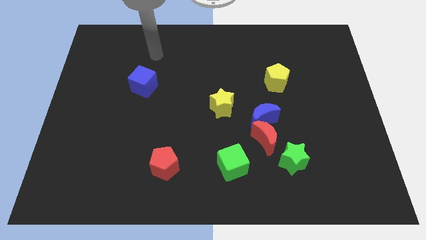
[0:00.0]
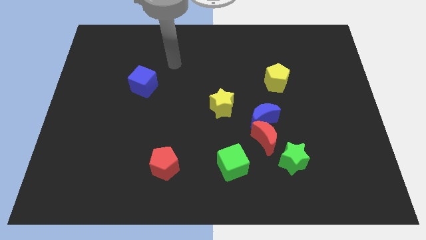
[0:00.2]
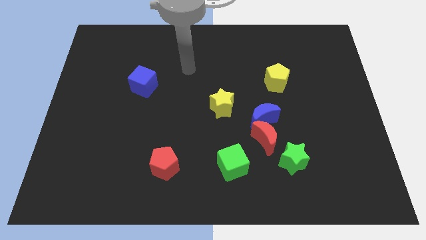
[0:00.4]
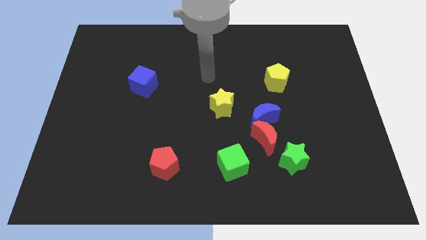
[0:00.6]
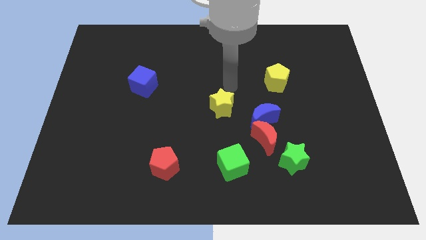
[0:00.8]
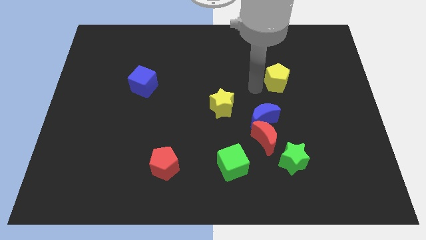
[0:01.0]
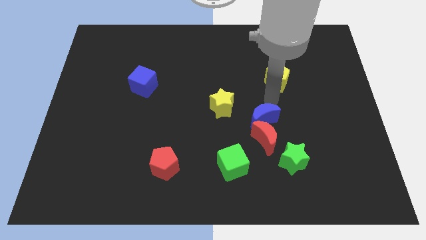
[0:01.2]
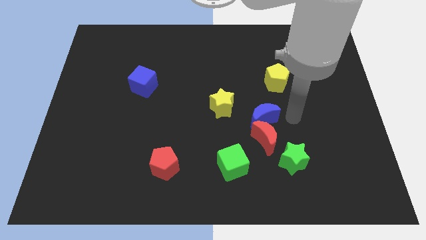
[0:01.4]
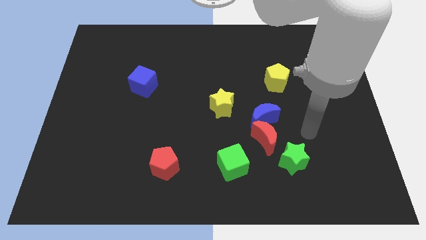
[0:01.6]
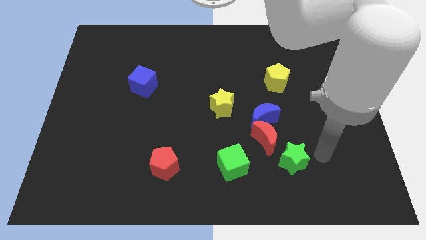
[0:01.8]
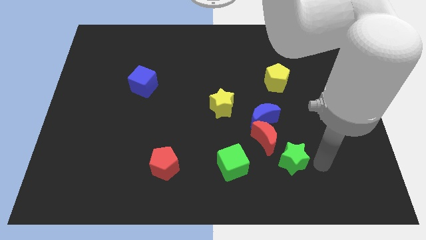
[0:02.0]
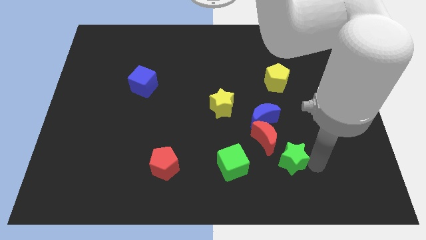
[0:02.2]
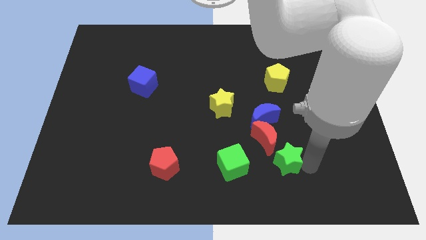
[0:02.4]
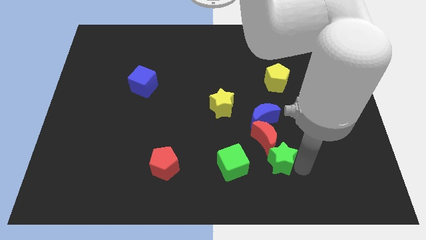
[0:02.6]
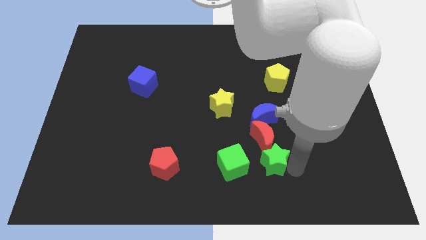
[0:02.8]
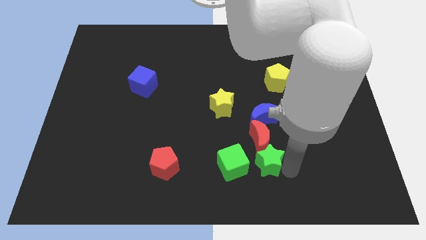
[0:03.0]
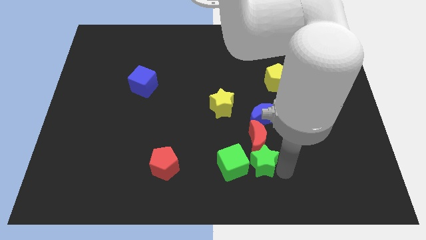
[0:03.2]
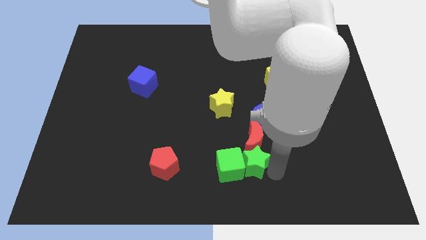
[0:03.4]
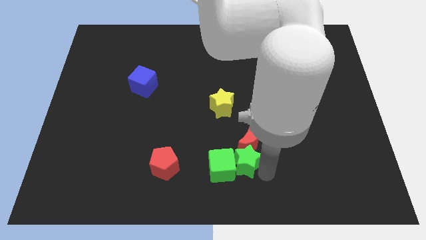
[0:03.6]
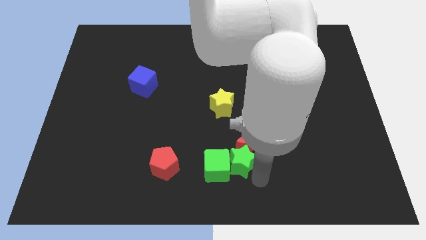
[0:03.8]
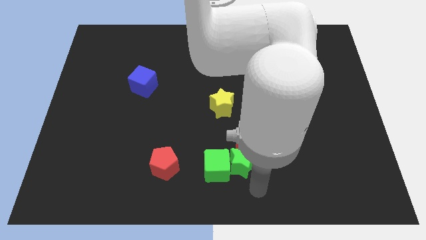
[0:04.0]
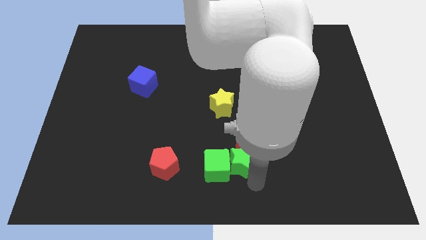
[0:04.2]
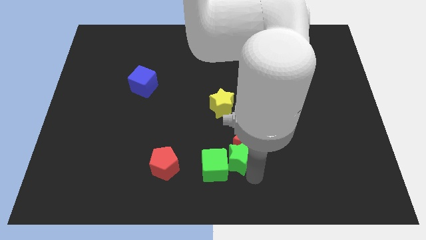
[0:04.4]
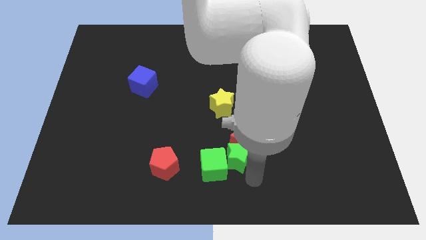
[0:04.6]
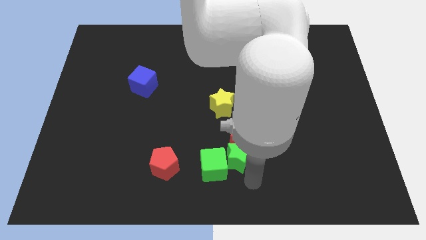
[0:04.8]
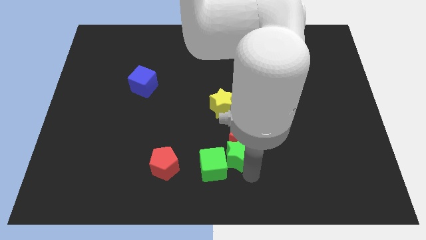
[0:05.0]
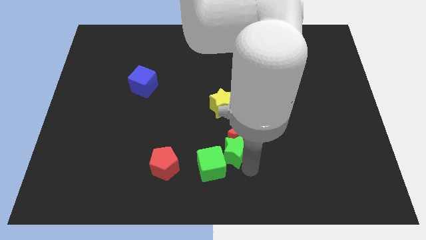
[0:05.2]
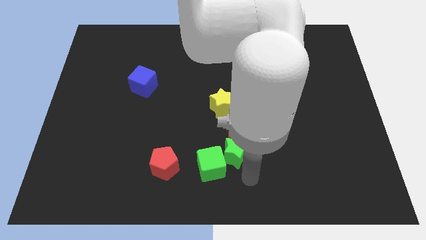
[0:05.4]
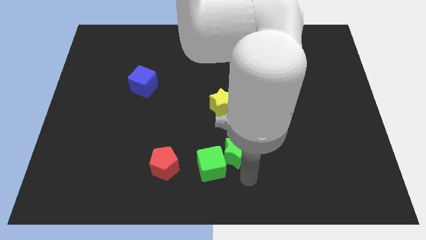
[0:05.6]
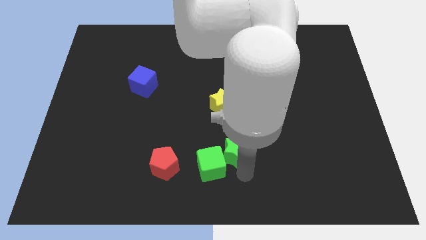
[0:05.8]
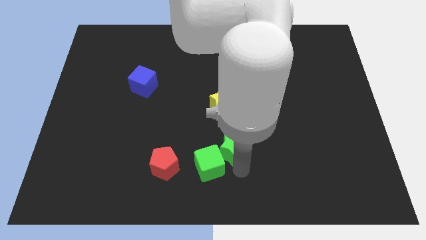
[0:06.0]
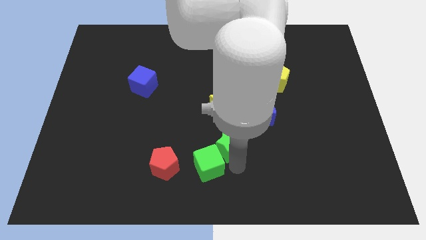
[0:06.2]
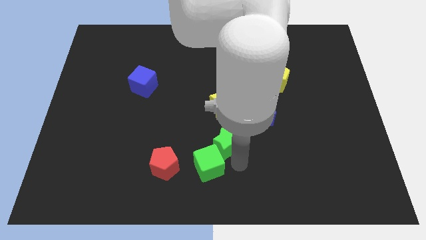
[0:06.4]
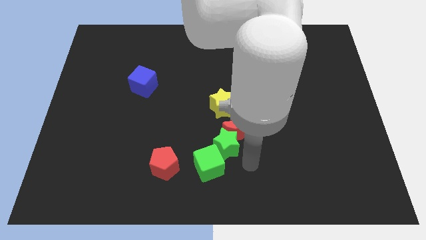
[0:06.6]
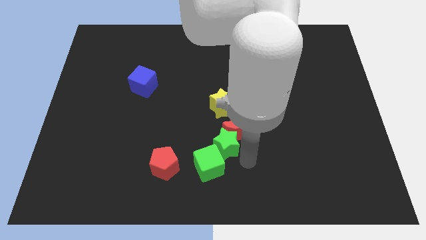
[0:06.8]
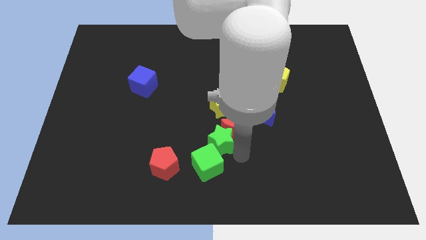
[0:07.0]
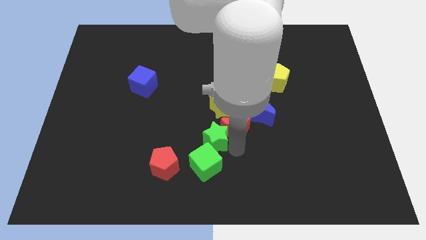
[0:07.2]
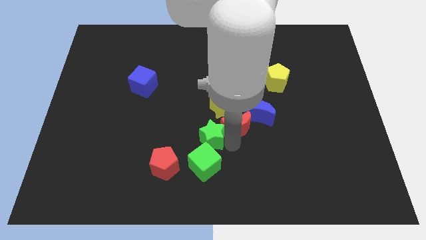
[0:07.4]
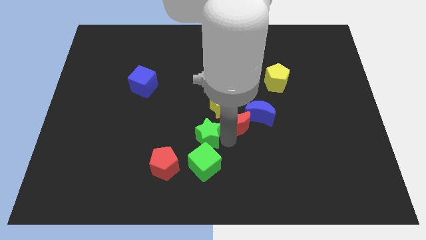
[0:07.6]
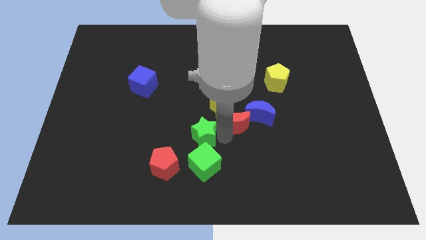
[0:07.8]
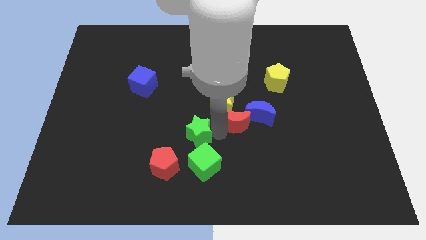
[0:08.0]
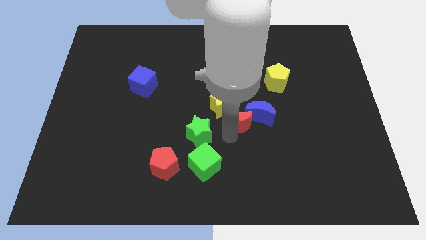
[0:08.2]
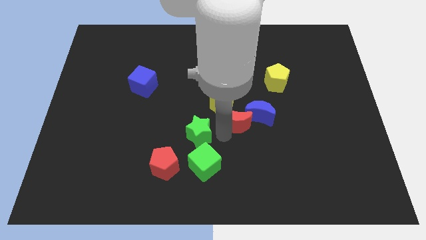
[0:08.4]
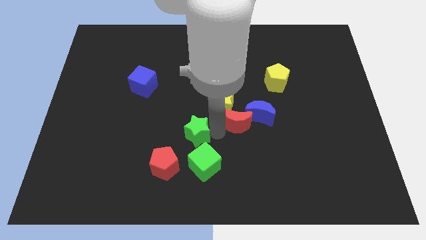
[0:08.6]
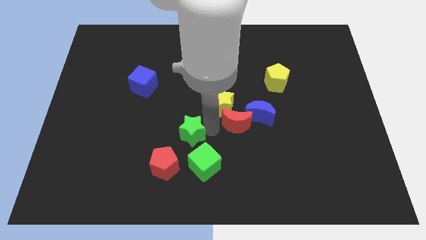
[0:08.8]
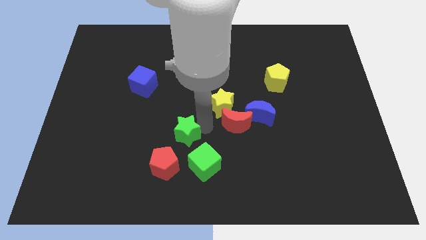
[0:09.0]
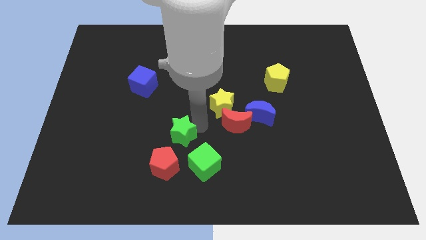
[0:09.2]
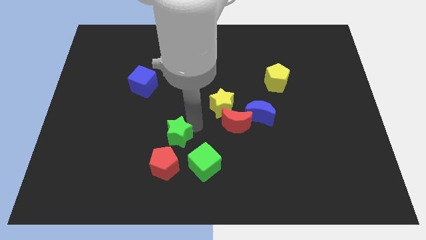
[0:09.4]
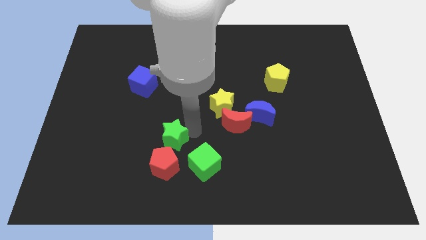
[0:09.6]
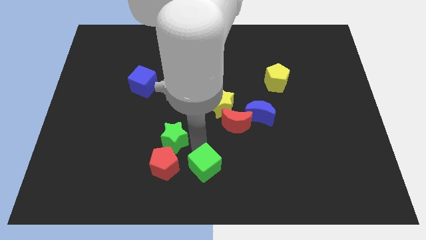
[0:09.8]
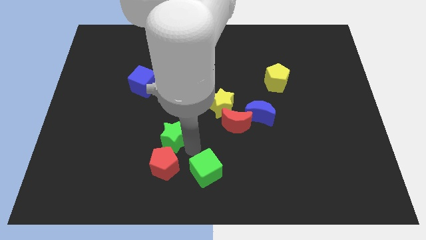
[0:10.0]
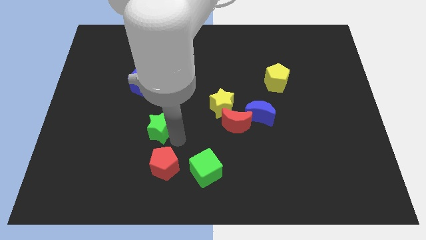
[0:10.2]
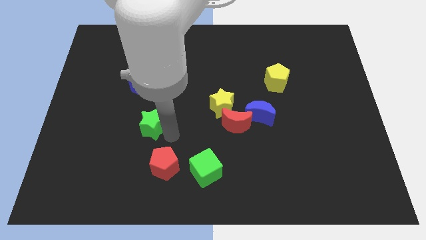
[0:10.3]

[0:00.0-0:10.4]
slide the green star below the blue cube

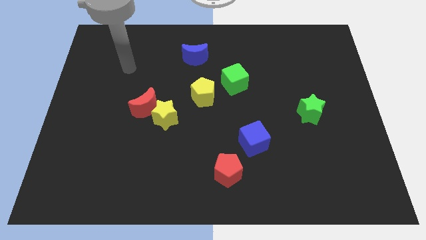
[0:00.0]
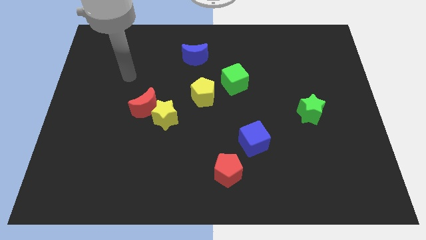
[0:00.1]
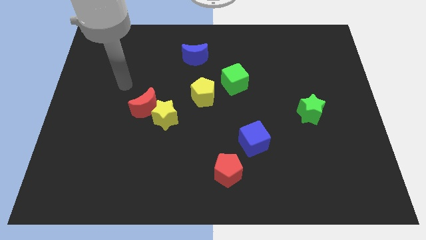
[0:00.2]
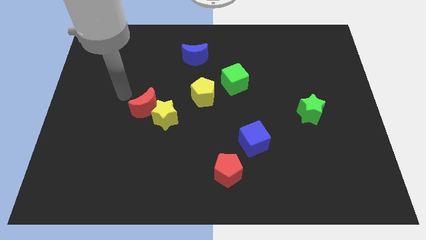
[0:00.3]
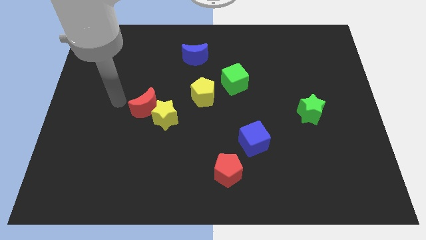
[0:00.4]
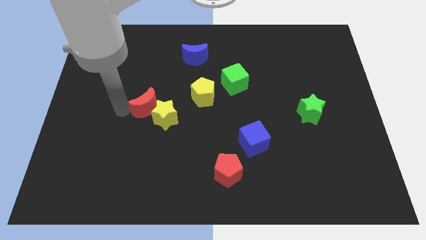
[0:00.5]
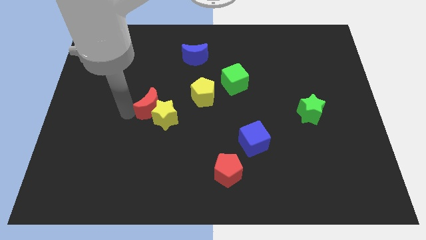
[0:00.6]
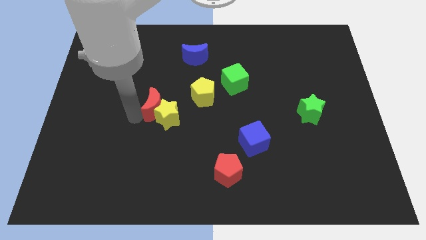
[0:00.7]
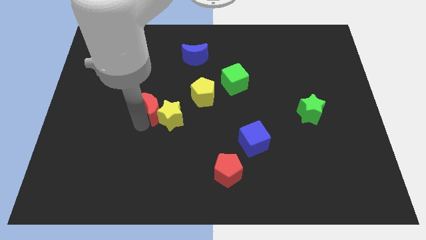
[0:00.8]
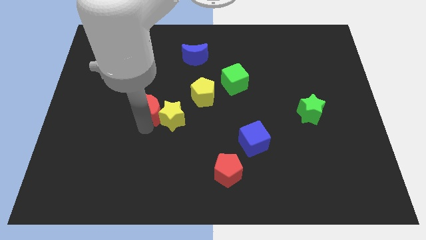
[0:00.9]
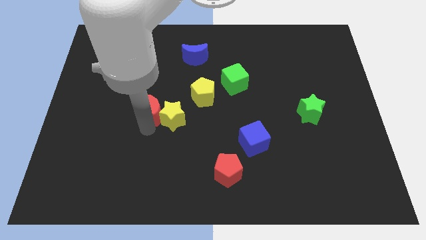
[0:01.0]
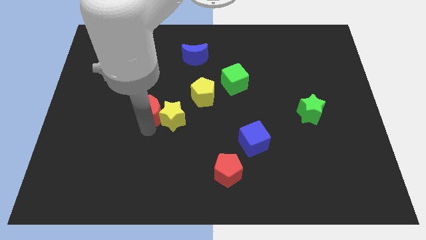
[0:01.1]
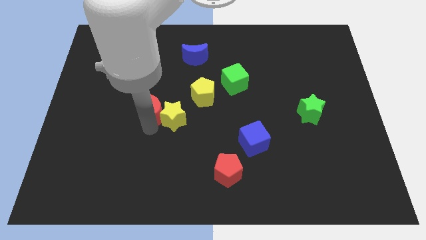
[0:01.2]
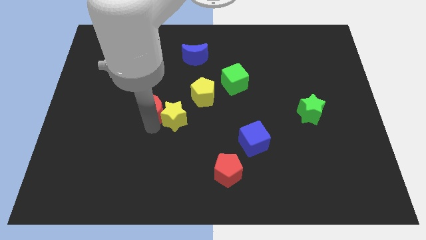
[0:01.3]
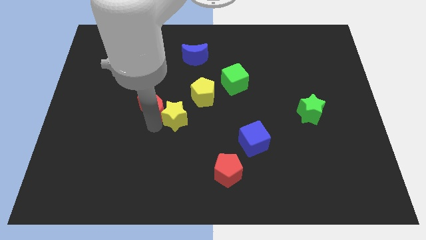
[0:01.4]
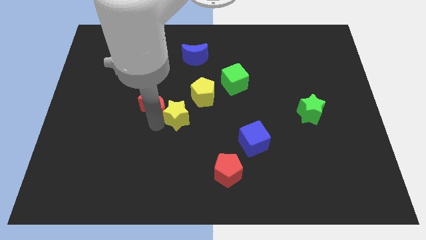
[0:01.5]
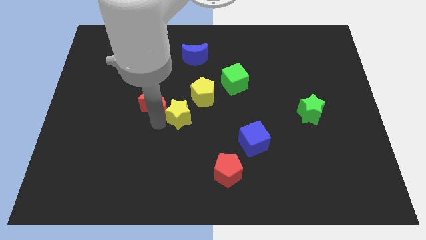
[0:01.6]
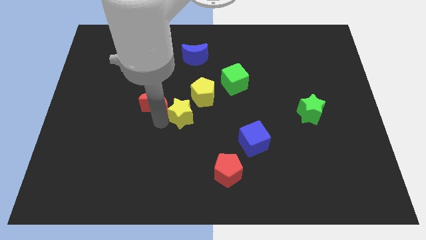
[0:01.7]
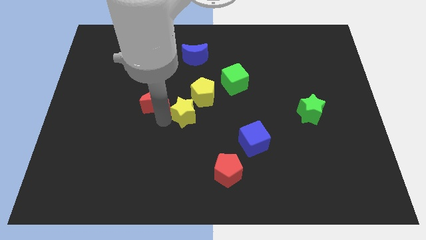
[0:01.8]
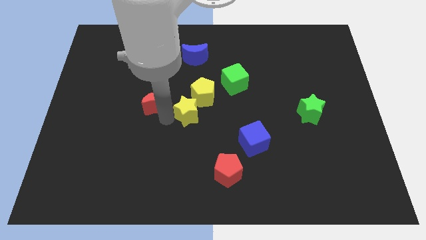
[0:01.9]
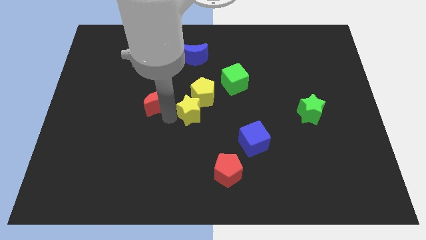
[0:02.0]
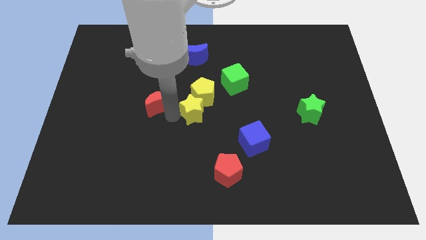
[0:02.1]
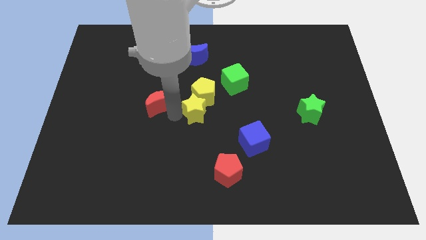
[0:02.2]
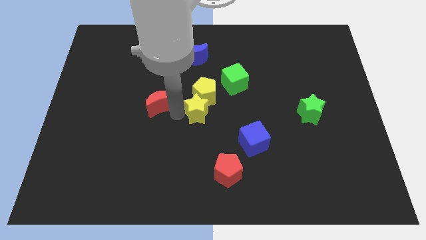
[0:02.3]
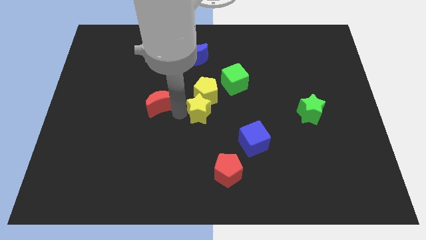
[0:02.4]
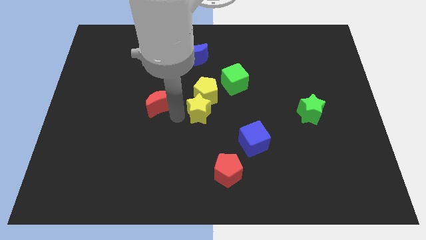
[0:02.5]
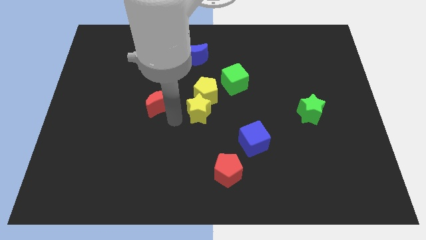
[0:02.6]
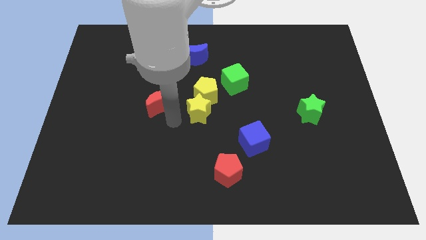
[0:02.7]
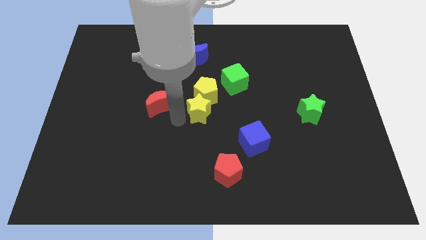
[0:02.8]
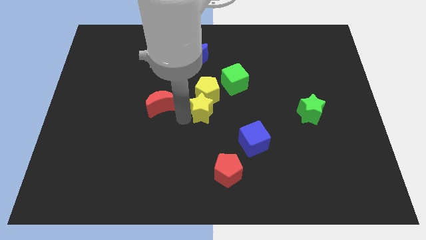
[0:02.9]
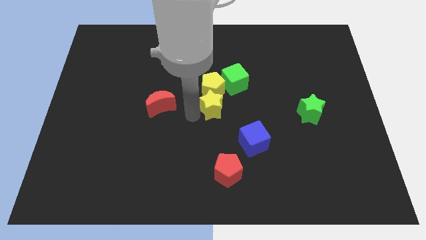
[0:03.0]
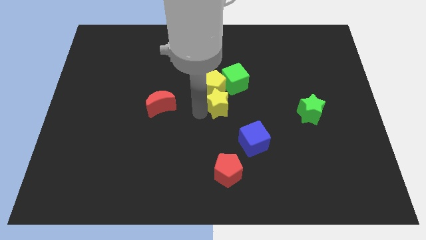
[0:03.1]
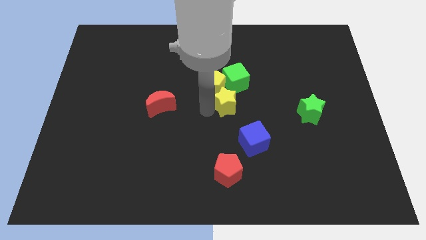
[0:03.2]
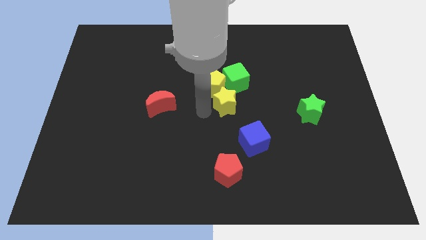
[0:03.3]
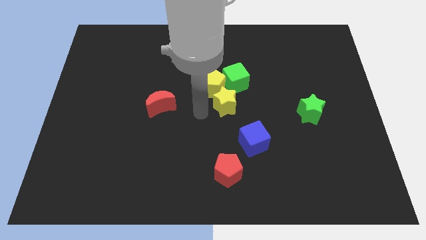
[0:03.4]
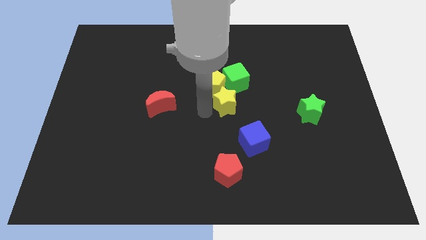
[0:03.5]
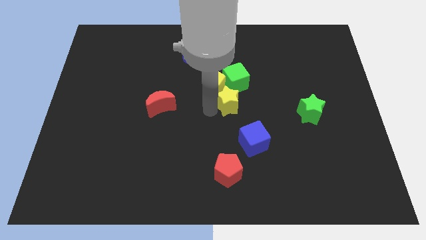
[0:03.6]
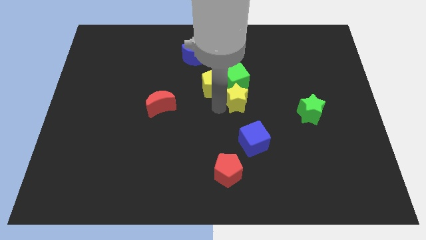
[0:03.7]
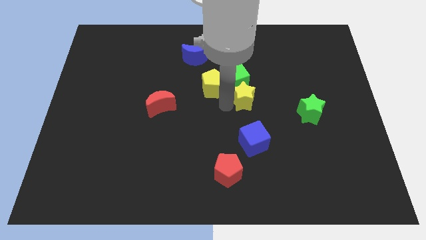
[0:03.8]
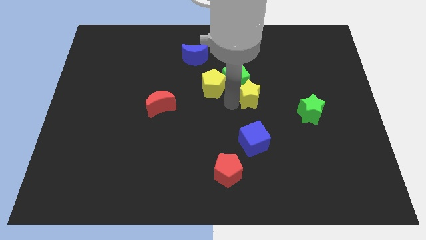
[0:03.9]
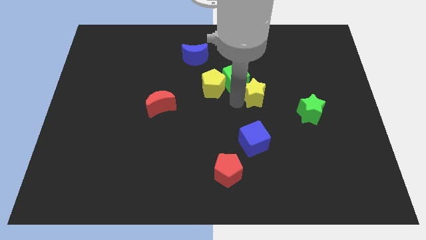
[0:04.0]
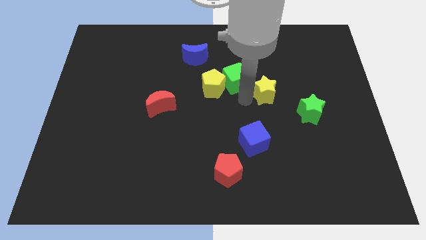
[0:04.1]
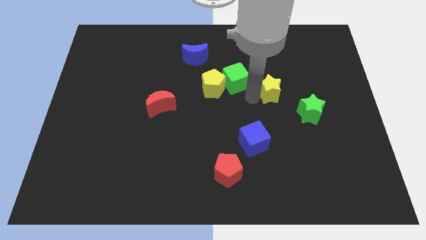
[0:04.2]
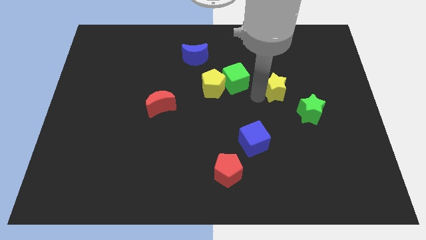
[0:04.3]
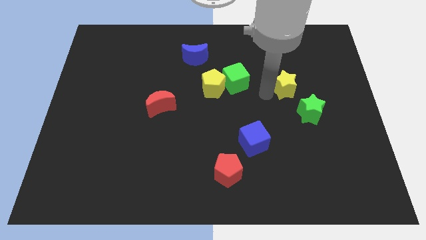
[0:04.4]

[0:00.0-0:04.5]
move the yellow star above the green star
